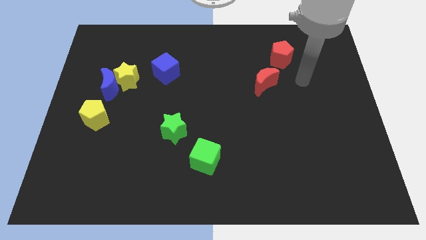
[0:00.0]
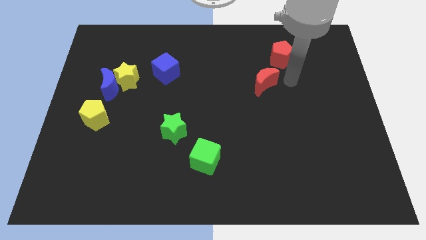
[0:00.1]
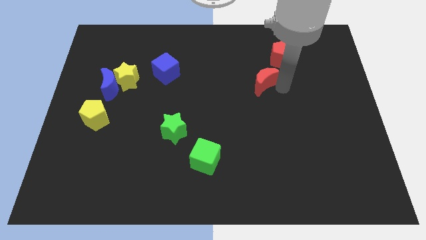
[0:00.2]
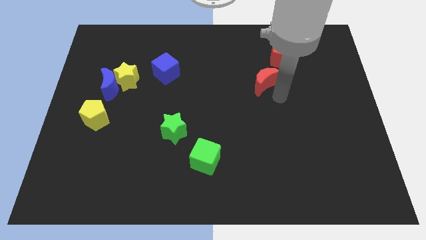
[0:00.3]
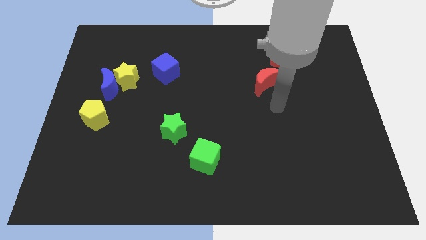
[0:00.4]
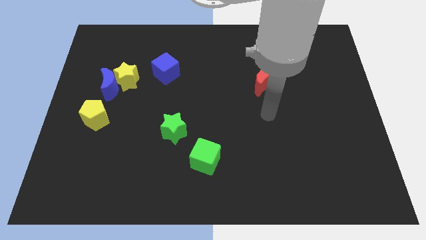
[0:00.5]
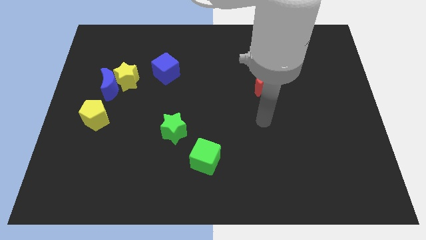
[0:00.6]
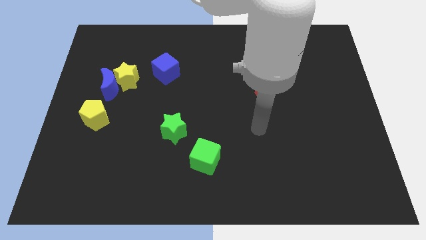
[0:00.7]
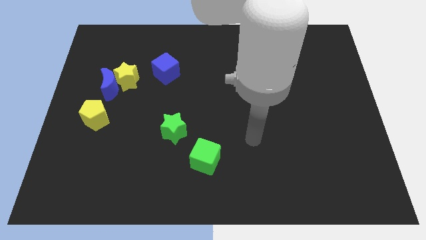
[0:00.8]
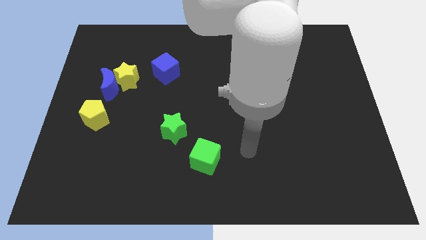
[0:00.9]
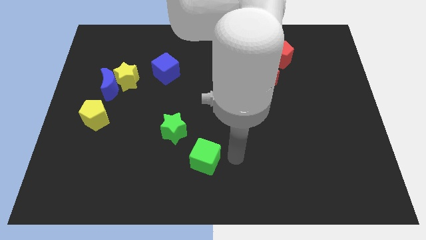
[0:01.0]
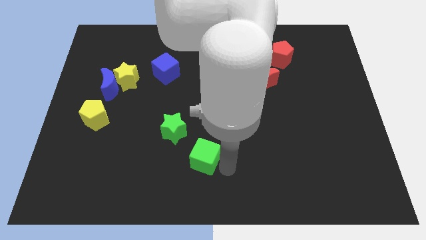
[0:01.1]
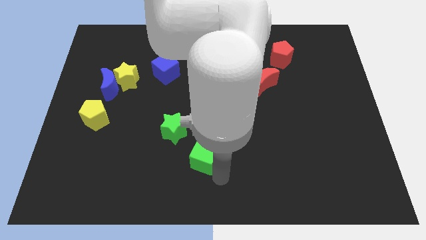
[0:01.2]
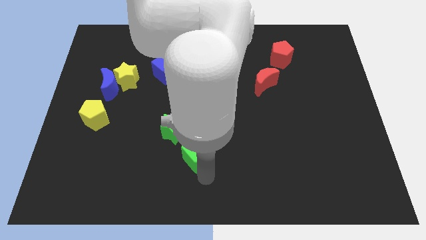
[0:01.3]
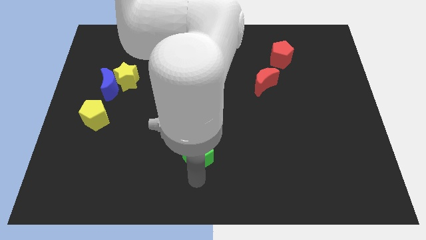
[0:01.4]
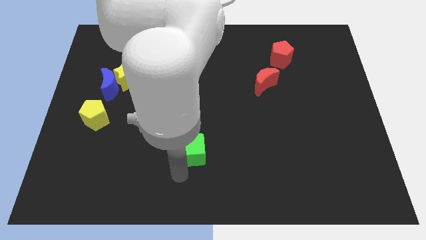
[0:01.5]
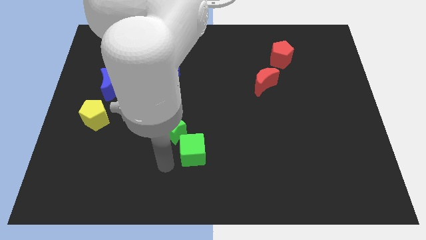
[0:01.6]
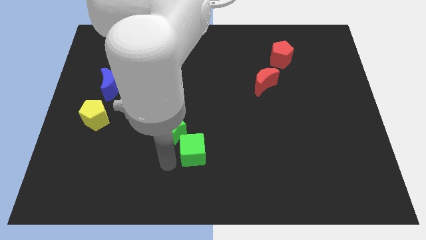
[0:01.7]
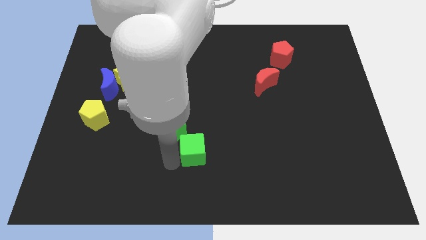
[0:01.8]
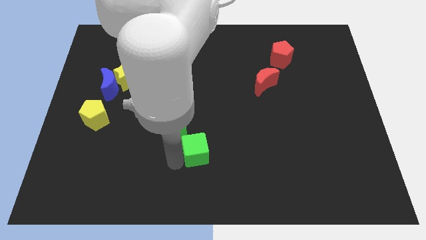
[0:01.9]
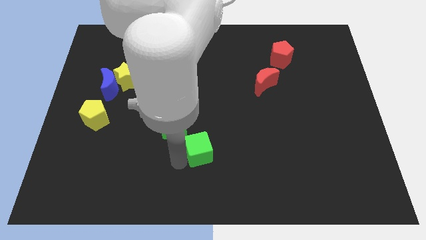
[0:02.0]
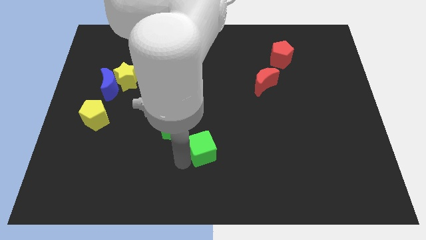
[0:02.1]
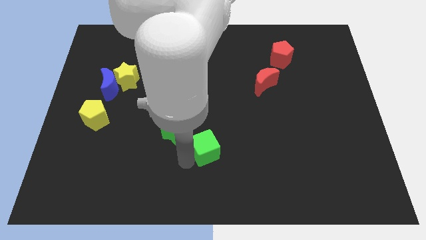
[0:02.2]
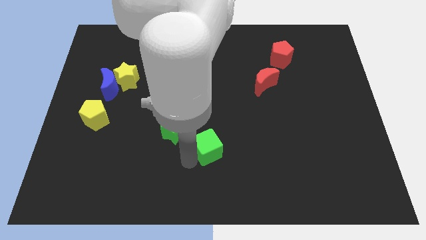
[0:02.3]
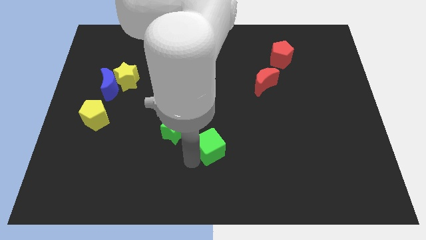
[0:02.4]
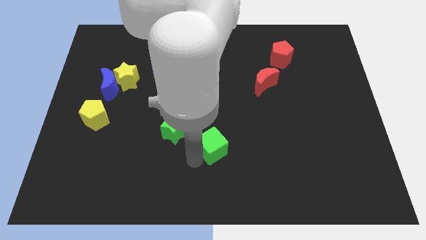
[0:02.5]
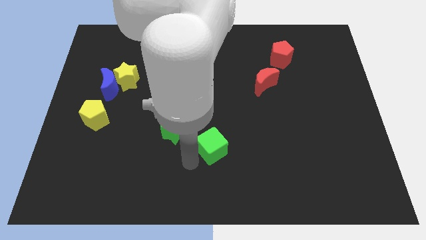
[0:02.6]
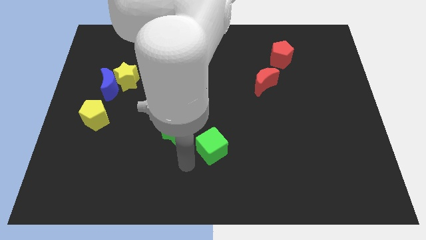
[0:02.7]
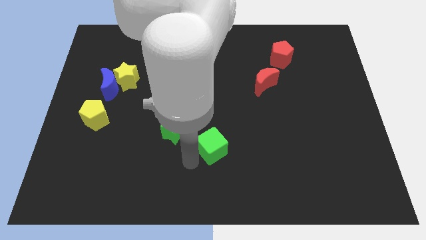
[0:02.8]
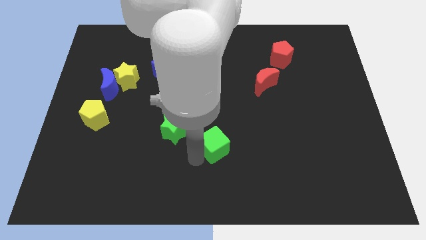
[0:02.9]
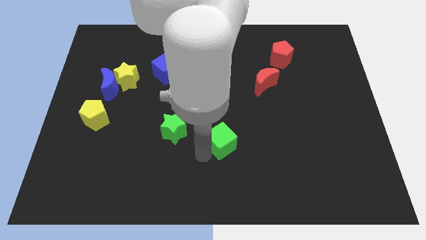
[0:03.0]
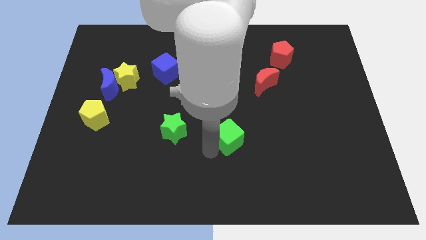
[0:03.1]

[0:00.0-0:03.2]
slightly push the green cube up and to the right diagonally

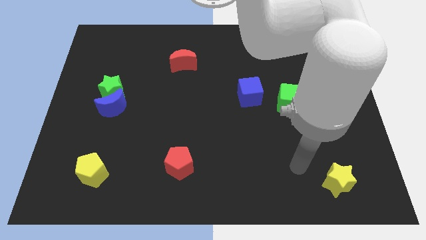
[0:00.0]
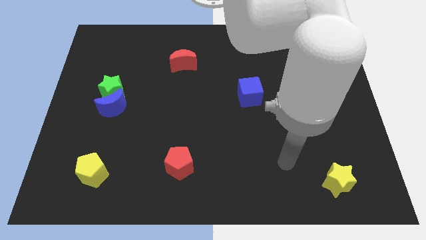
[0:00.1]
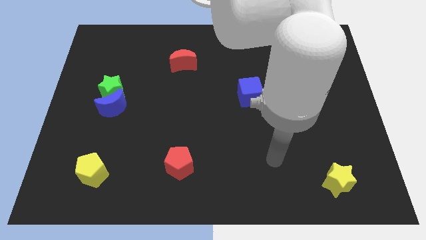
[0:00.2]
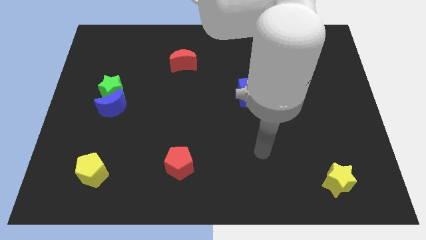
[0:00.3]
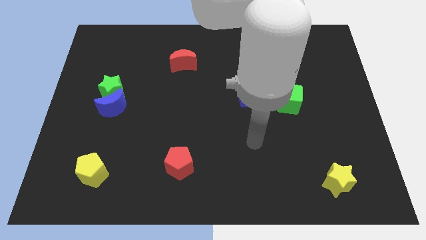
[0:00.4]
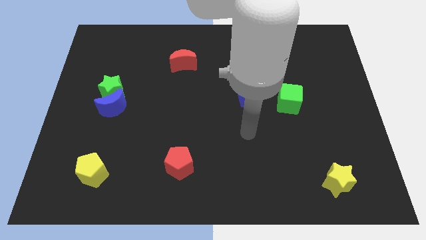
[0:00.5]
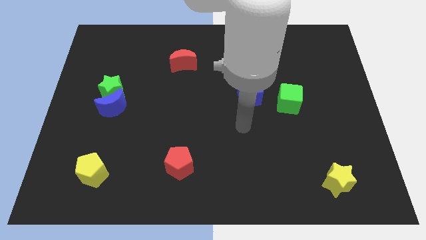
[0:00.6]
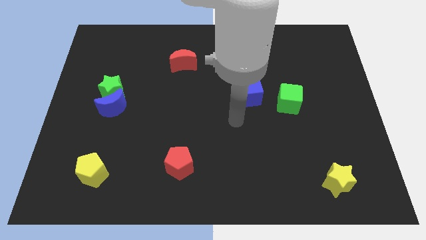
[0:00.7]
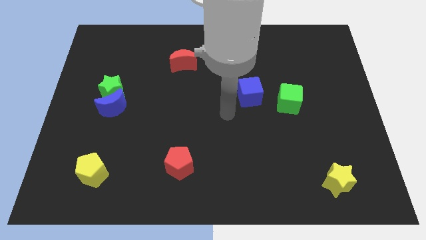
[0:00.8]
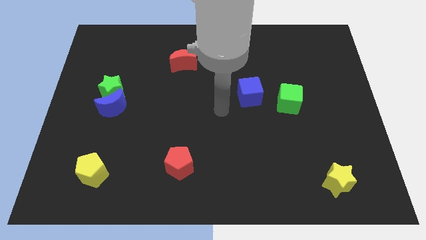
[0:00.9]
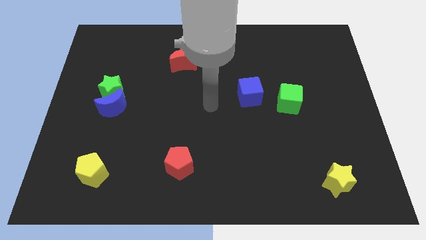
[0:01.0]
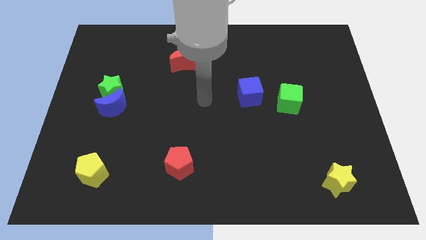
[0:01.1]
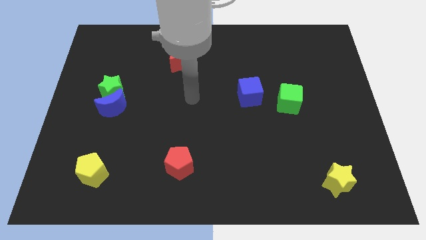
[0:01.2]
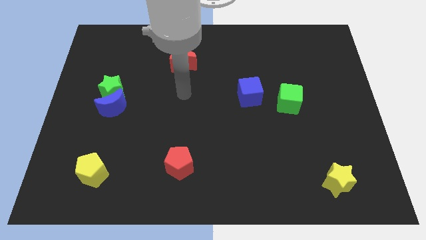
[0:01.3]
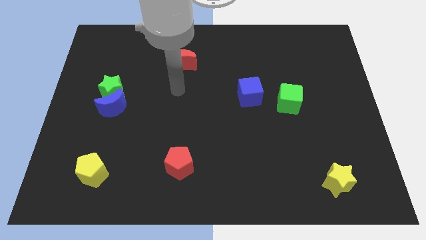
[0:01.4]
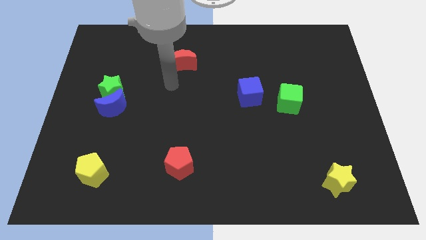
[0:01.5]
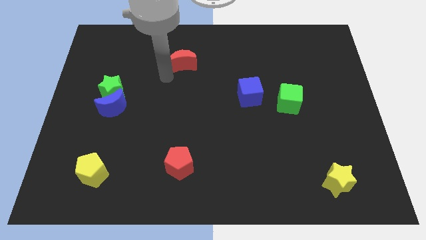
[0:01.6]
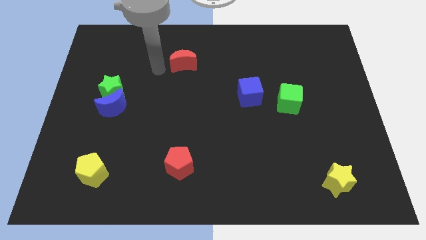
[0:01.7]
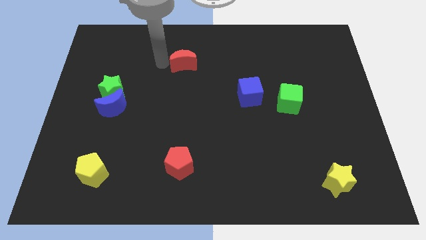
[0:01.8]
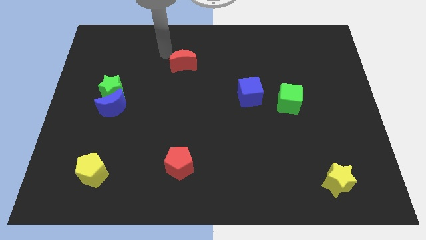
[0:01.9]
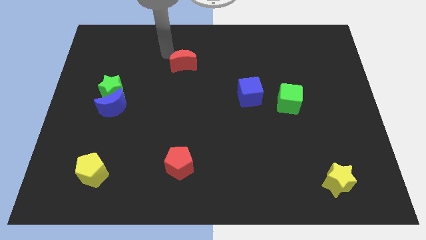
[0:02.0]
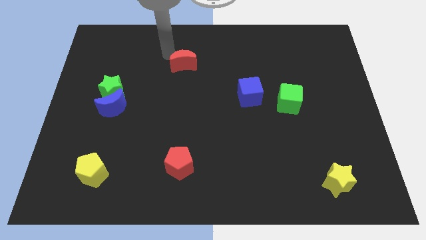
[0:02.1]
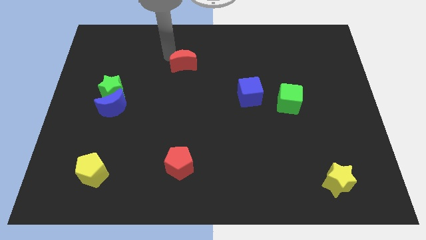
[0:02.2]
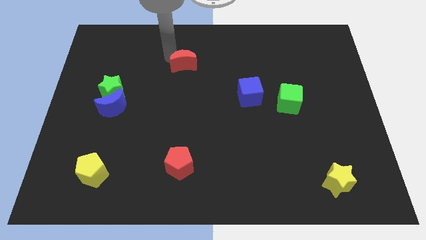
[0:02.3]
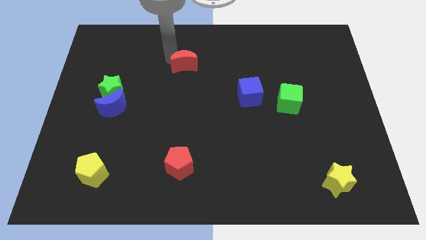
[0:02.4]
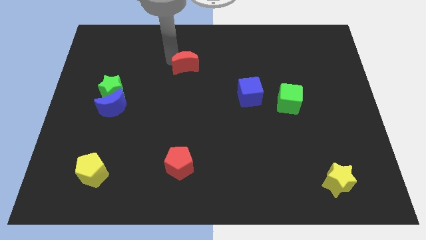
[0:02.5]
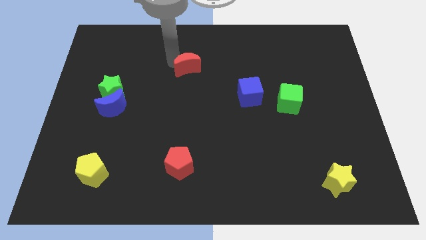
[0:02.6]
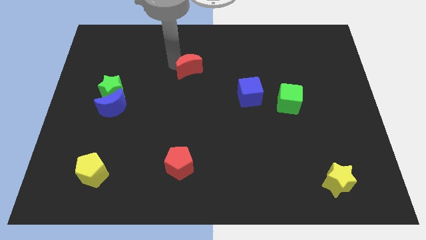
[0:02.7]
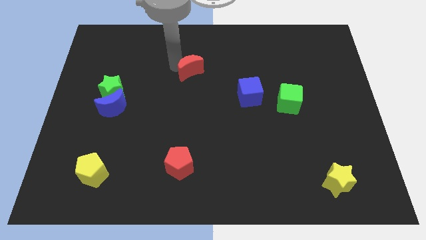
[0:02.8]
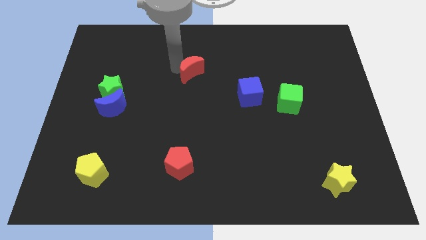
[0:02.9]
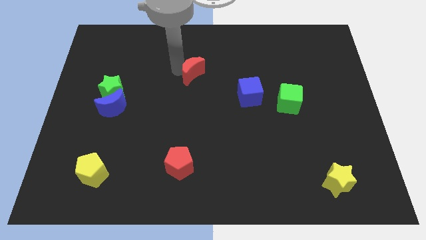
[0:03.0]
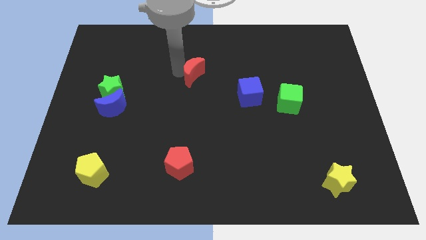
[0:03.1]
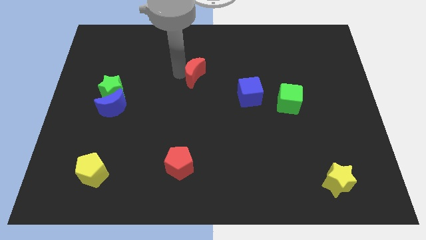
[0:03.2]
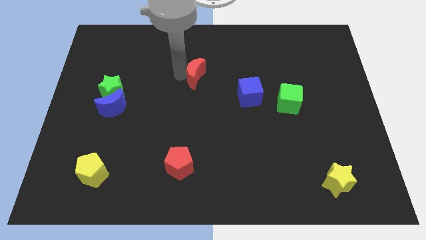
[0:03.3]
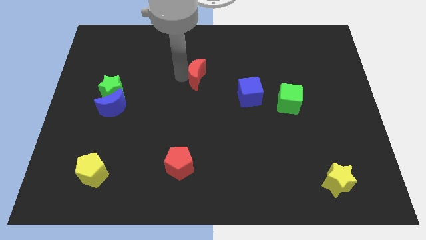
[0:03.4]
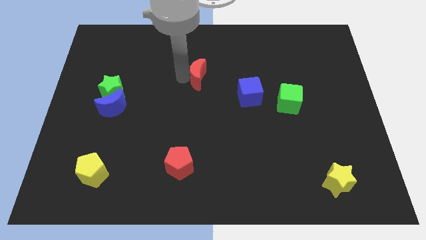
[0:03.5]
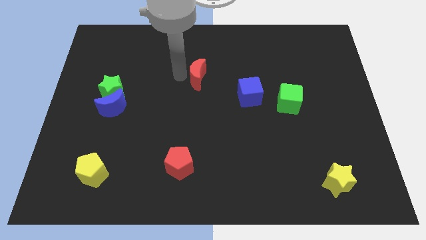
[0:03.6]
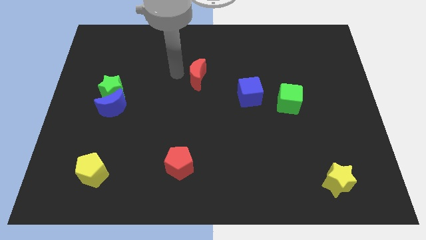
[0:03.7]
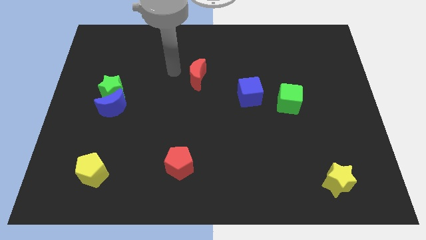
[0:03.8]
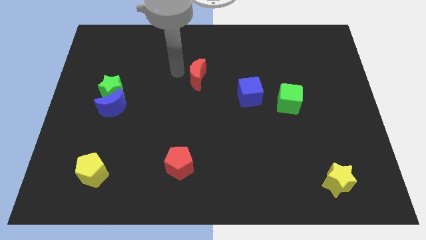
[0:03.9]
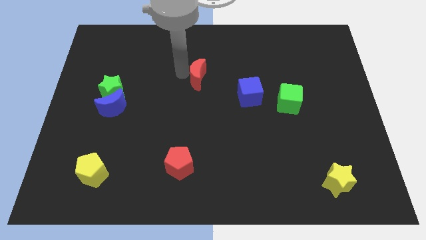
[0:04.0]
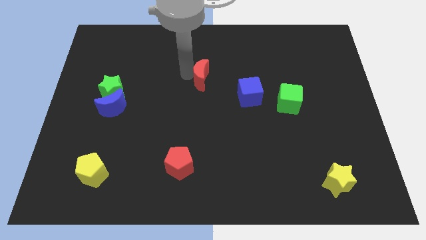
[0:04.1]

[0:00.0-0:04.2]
slightly move the red moon down and then right

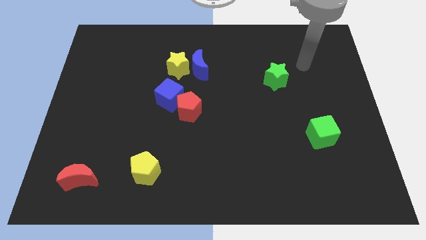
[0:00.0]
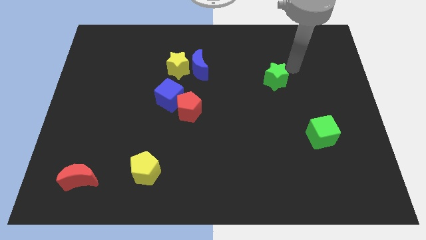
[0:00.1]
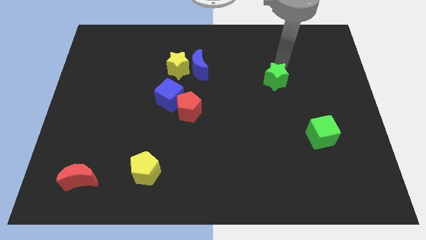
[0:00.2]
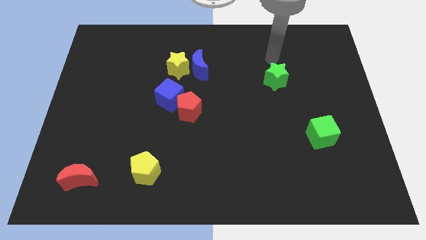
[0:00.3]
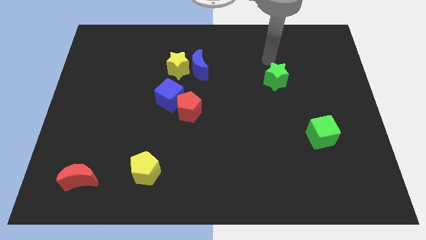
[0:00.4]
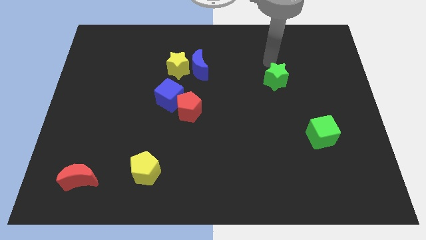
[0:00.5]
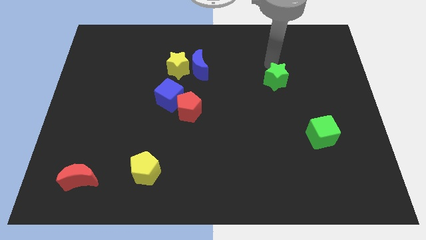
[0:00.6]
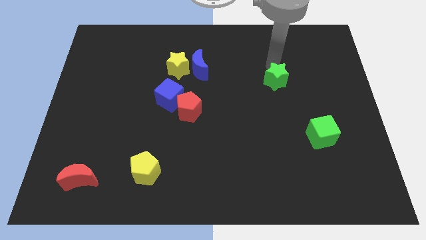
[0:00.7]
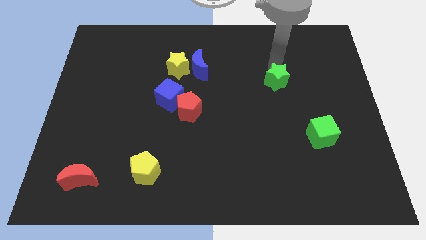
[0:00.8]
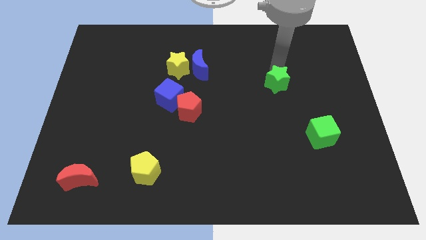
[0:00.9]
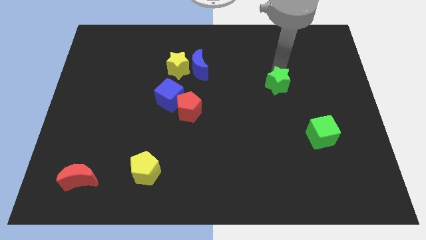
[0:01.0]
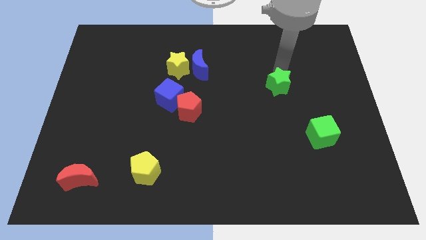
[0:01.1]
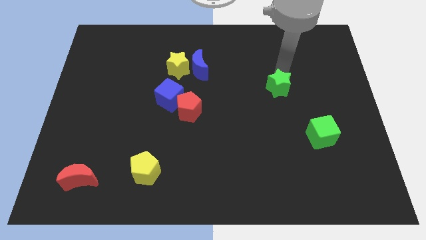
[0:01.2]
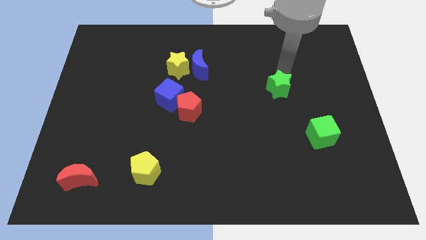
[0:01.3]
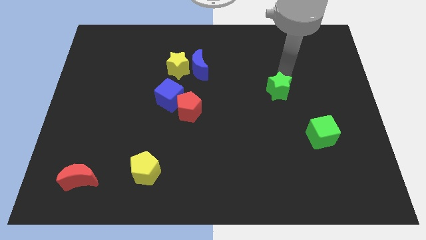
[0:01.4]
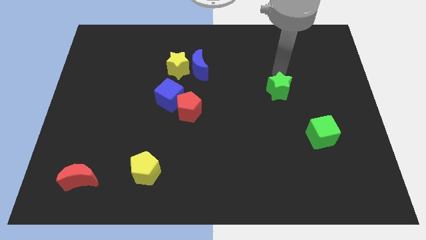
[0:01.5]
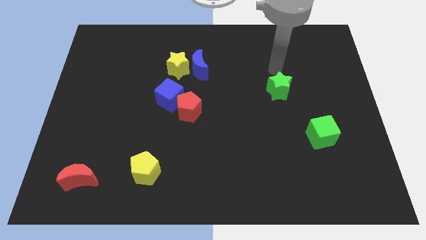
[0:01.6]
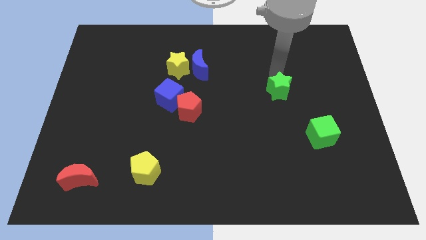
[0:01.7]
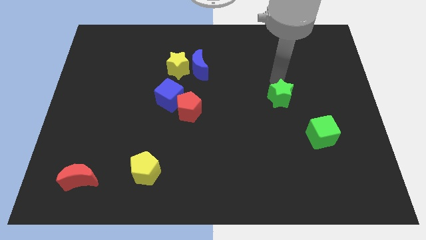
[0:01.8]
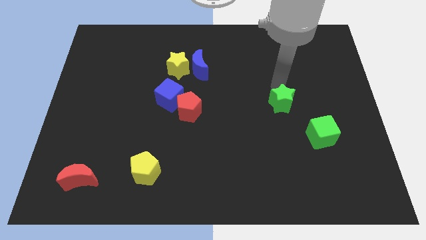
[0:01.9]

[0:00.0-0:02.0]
move the green star a bit down
